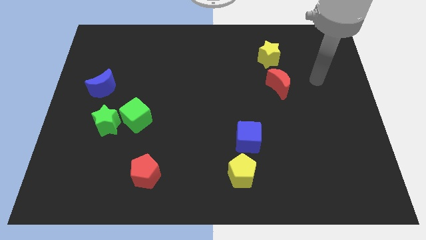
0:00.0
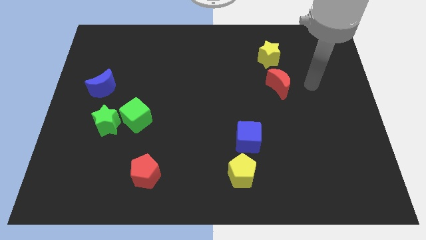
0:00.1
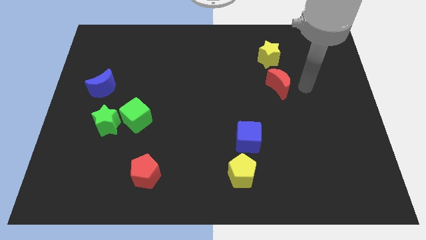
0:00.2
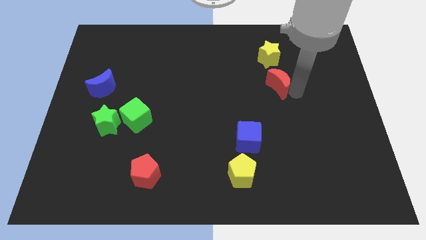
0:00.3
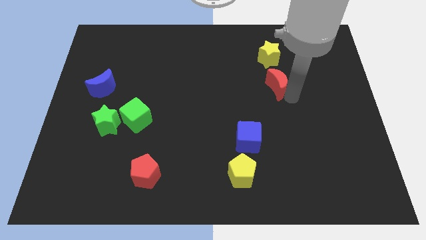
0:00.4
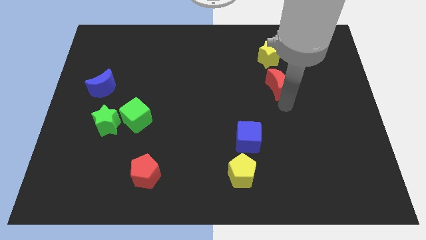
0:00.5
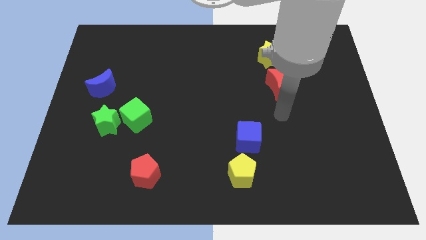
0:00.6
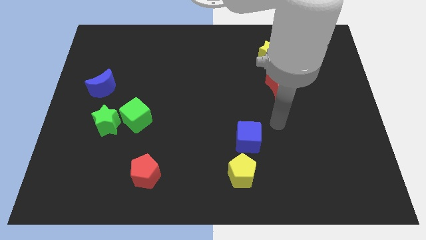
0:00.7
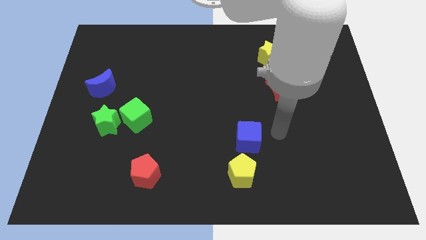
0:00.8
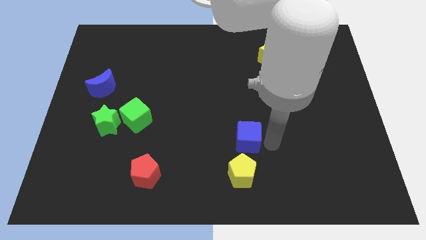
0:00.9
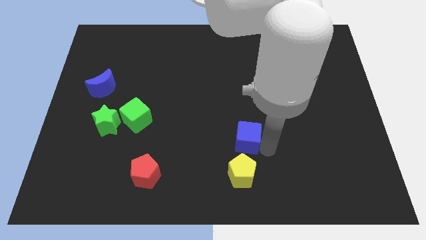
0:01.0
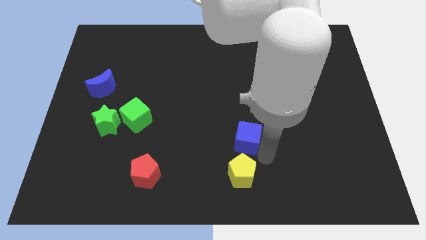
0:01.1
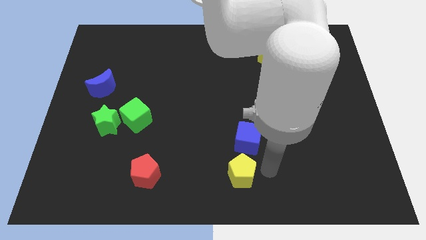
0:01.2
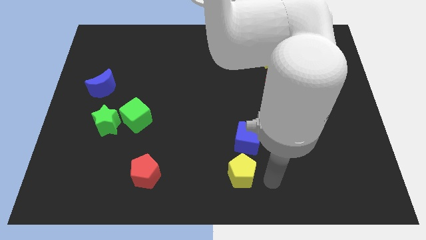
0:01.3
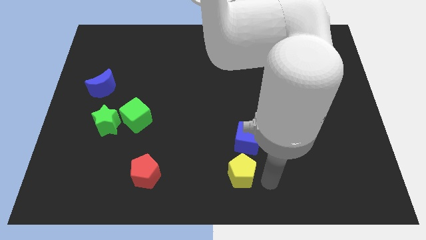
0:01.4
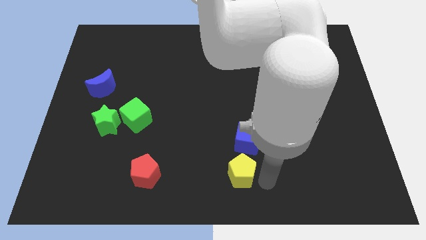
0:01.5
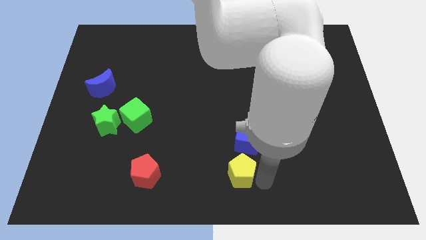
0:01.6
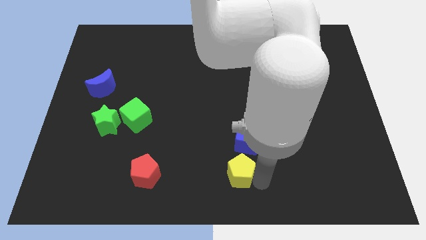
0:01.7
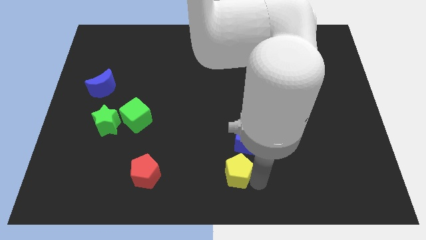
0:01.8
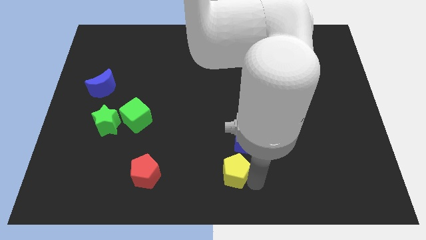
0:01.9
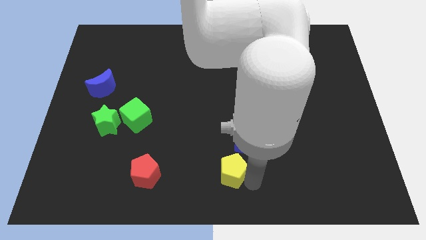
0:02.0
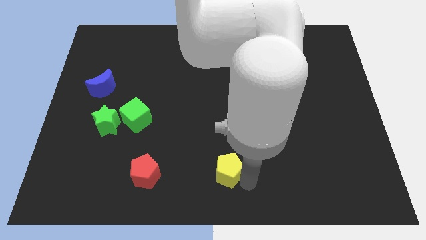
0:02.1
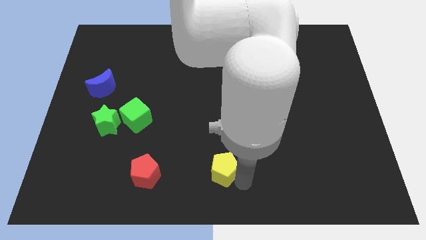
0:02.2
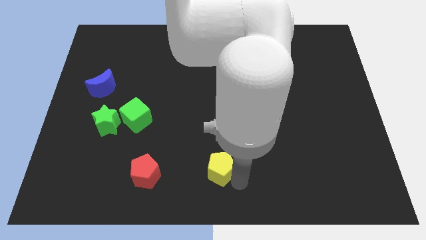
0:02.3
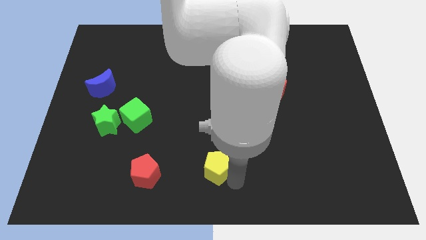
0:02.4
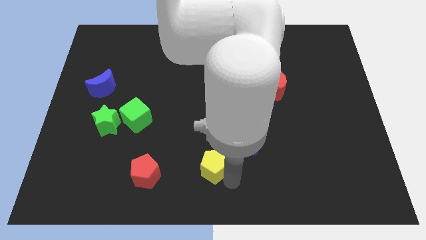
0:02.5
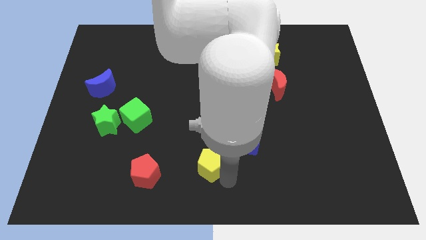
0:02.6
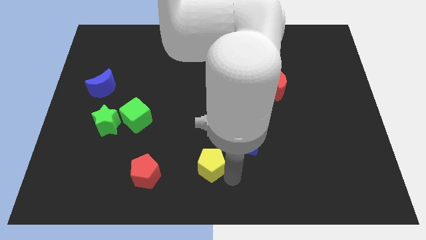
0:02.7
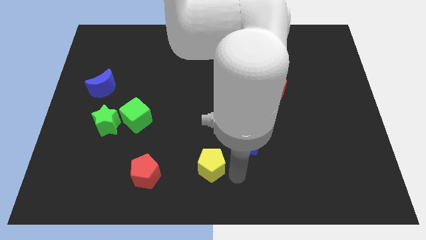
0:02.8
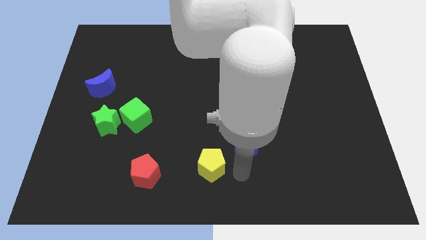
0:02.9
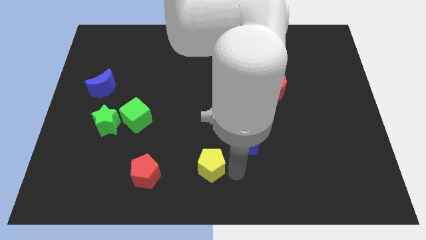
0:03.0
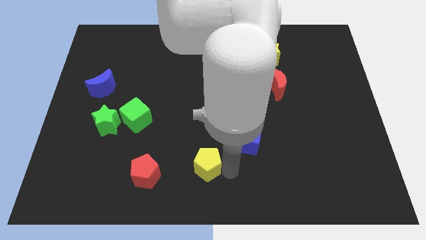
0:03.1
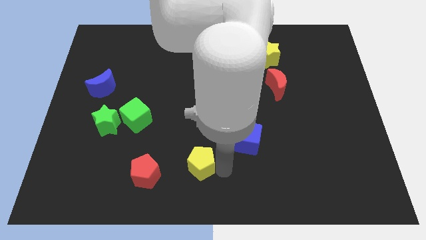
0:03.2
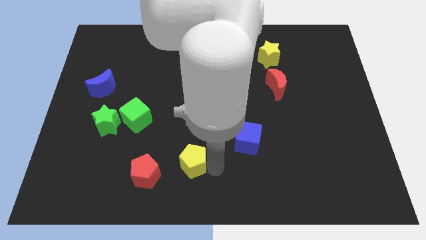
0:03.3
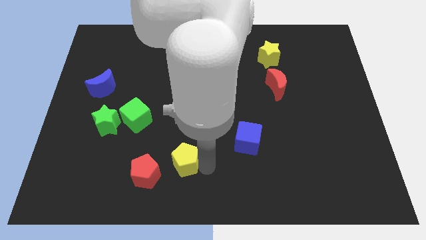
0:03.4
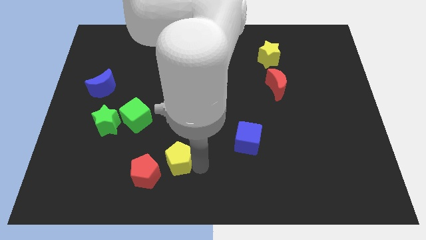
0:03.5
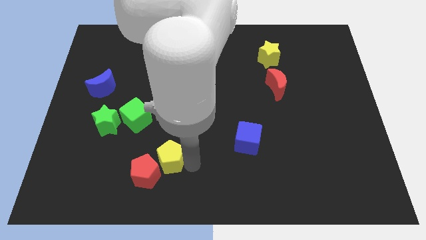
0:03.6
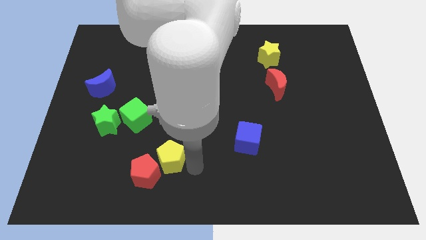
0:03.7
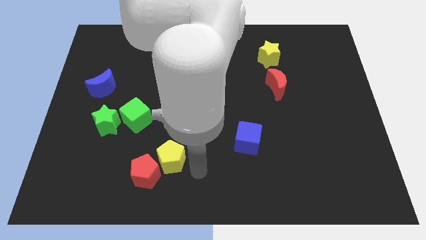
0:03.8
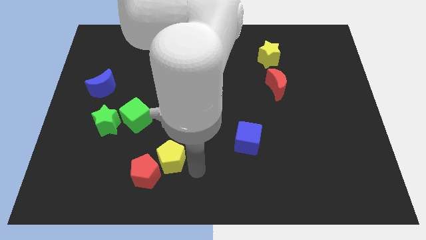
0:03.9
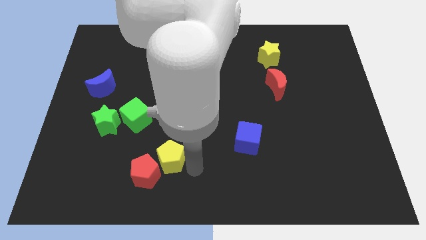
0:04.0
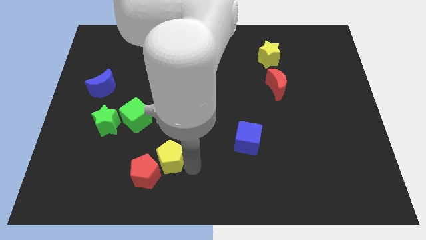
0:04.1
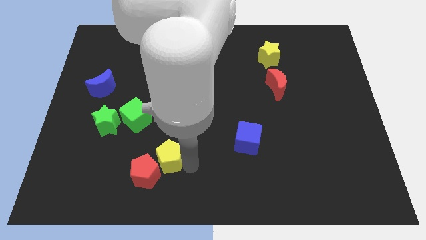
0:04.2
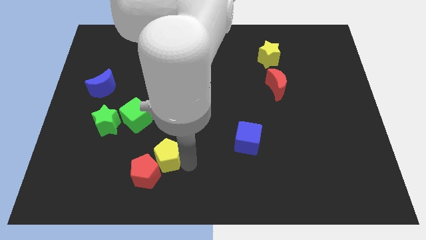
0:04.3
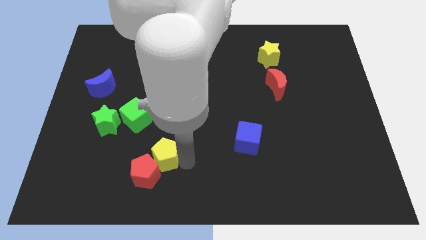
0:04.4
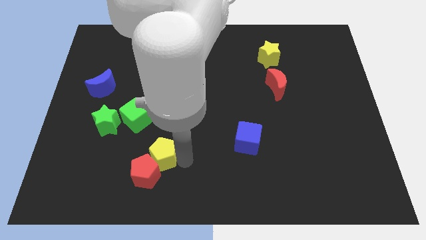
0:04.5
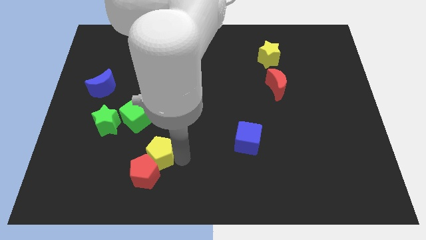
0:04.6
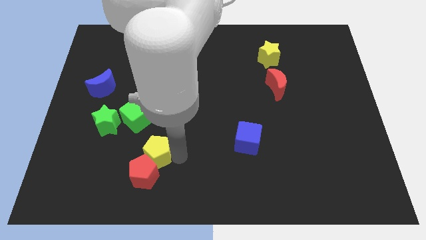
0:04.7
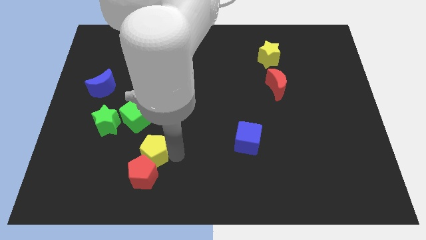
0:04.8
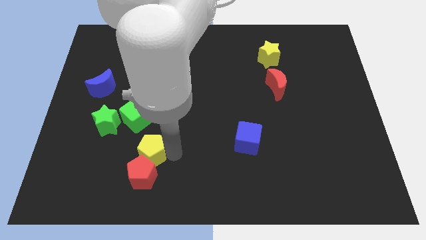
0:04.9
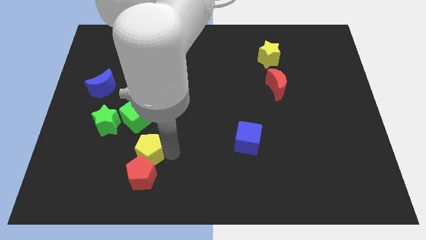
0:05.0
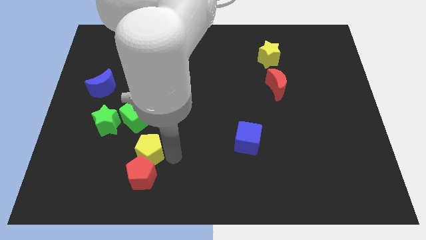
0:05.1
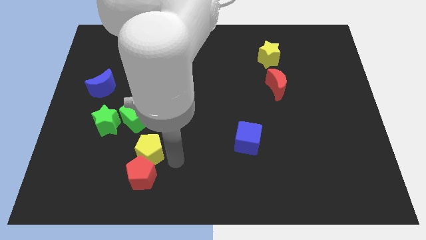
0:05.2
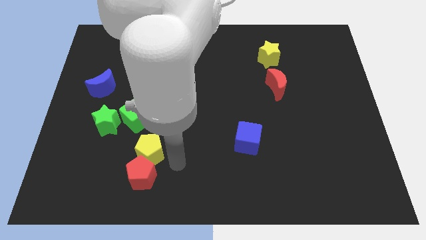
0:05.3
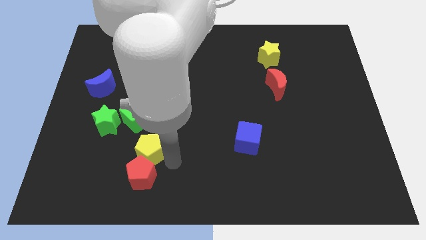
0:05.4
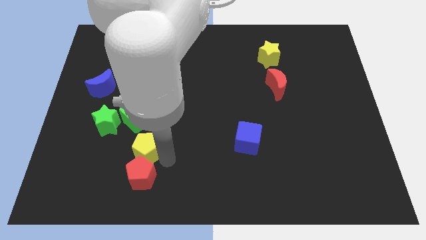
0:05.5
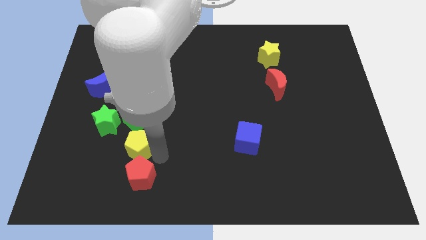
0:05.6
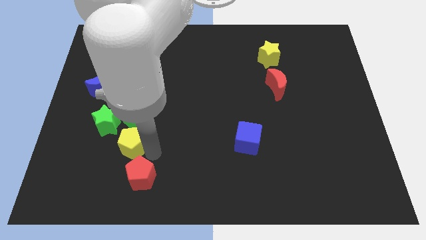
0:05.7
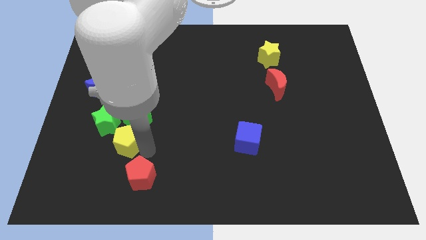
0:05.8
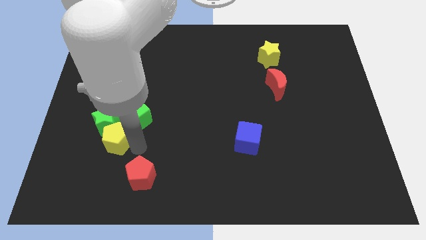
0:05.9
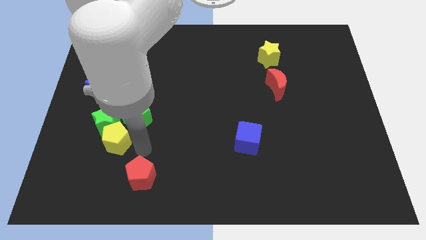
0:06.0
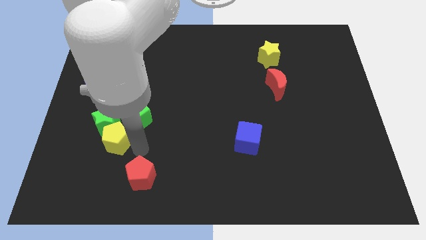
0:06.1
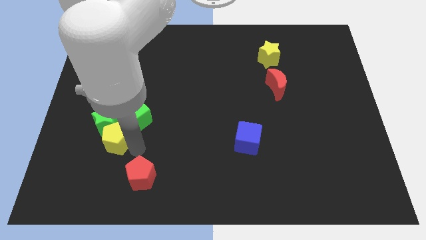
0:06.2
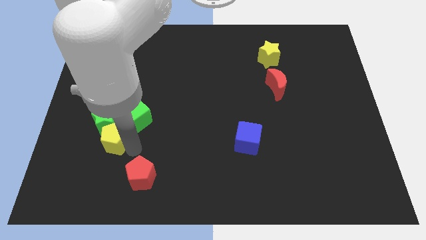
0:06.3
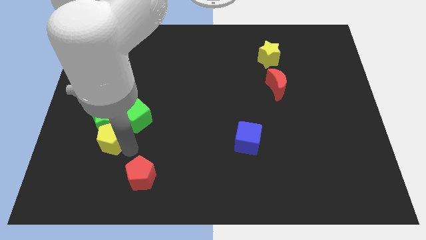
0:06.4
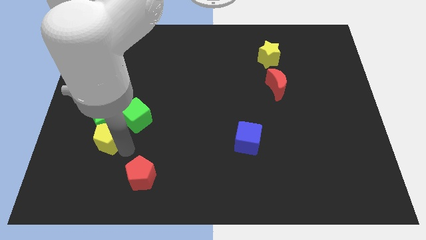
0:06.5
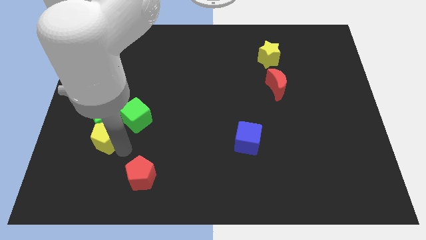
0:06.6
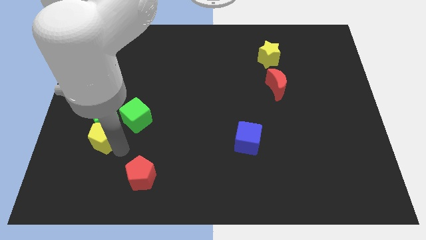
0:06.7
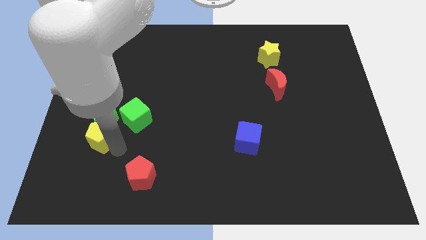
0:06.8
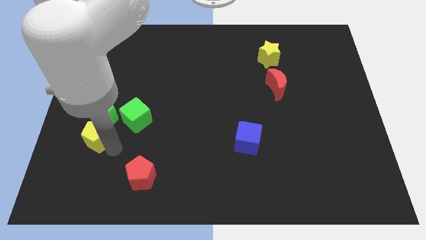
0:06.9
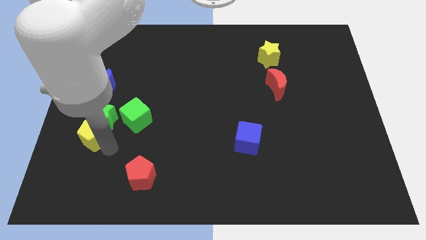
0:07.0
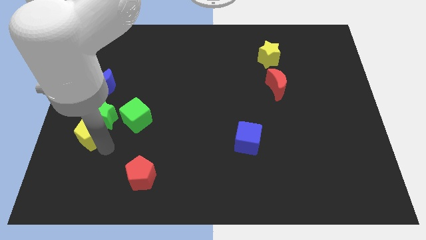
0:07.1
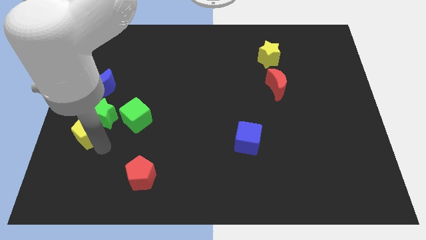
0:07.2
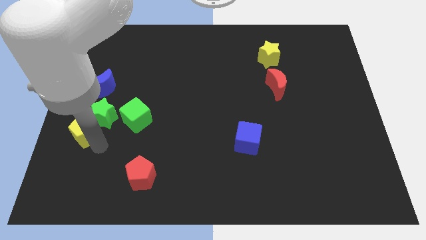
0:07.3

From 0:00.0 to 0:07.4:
push the yellow pentagon to the left side of the board
